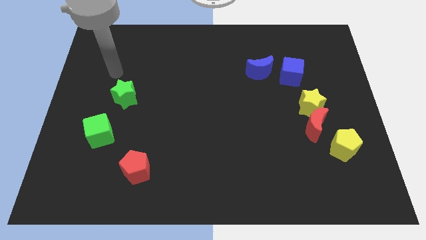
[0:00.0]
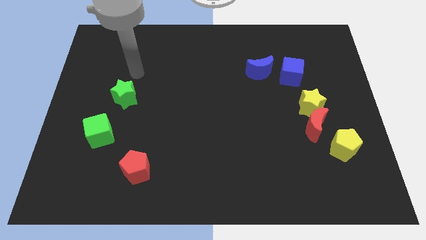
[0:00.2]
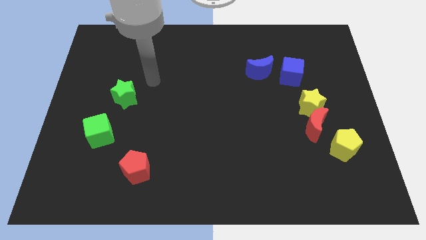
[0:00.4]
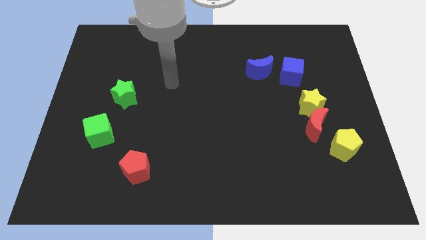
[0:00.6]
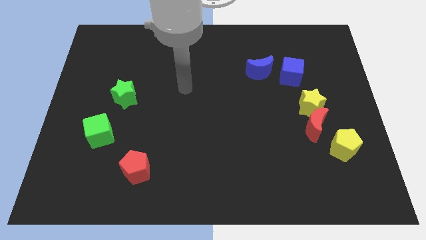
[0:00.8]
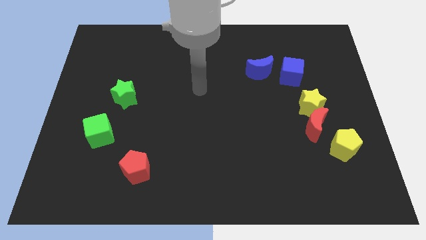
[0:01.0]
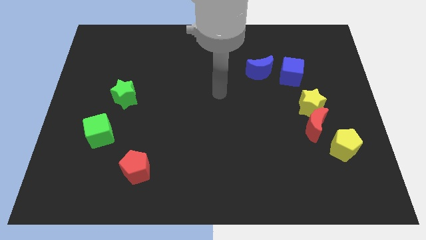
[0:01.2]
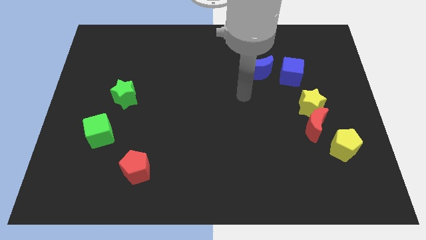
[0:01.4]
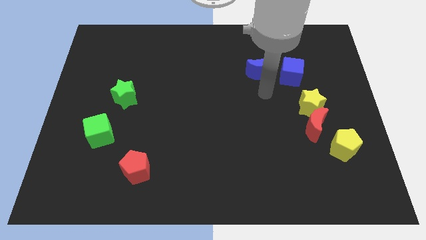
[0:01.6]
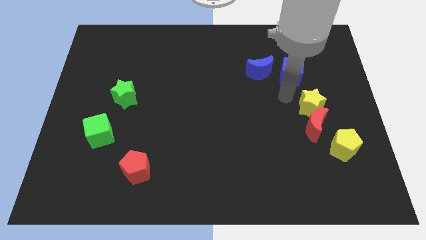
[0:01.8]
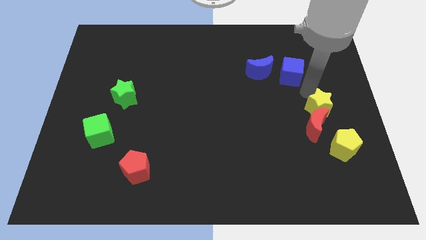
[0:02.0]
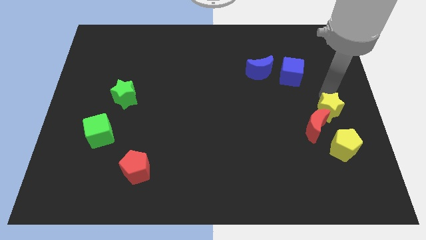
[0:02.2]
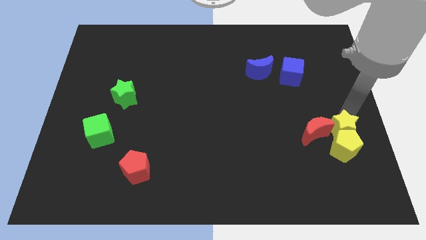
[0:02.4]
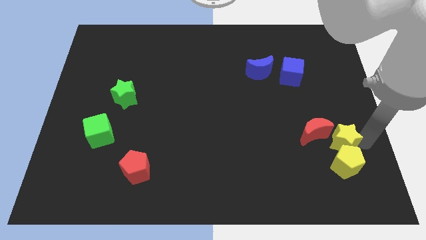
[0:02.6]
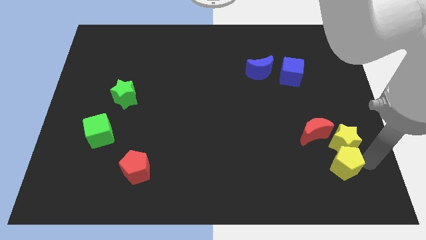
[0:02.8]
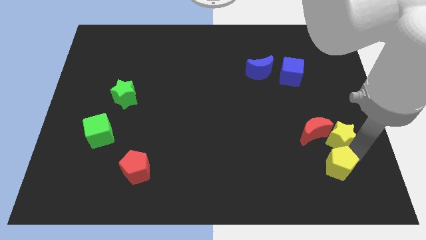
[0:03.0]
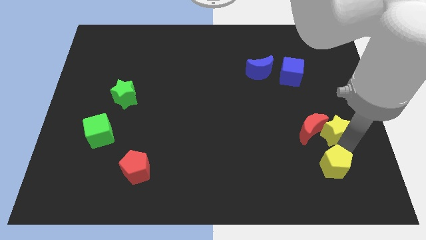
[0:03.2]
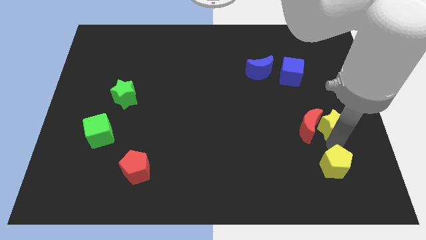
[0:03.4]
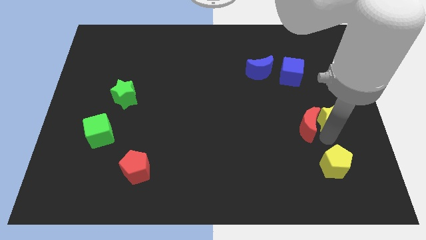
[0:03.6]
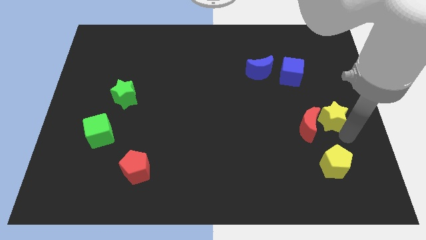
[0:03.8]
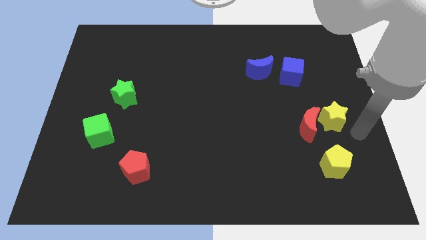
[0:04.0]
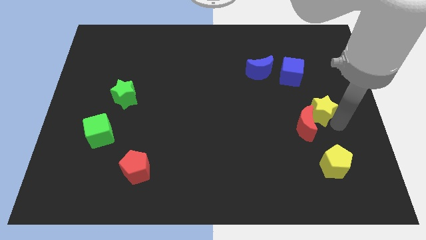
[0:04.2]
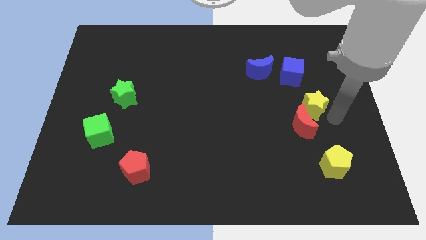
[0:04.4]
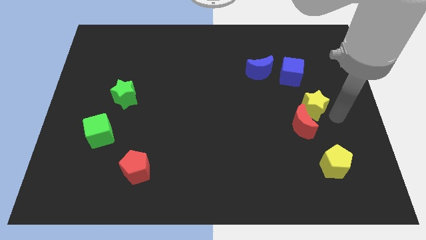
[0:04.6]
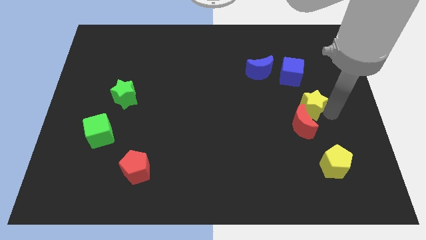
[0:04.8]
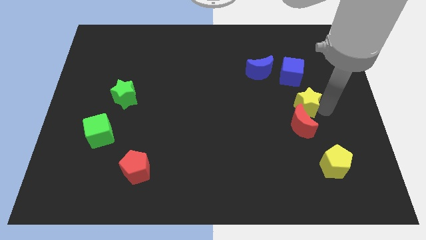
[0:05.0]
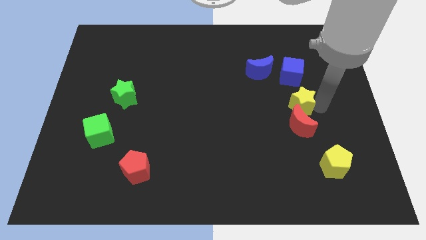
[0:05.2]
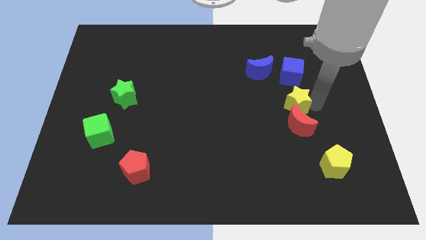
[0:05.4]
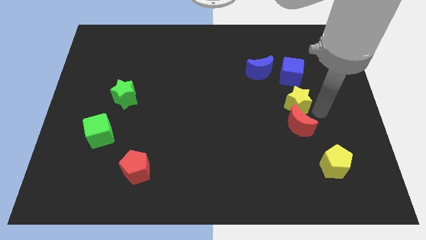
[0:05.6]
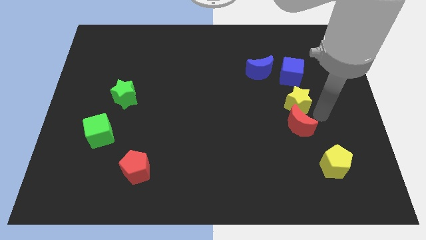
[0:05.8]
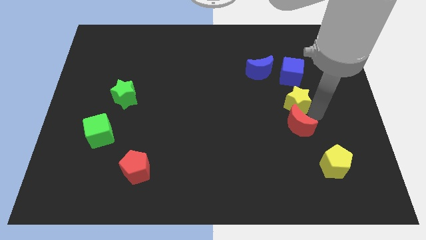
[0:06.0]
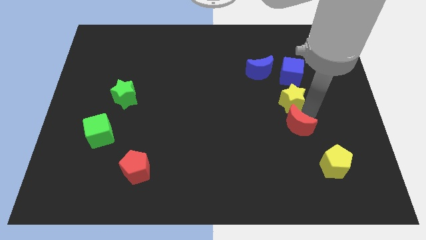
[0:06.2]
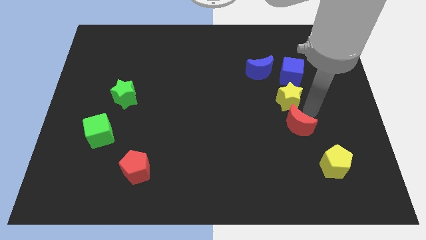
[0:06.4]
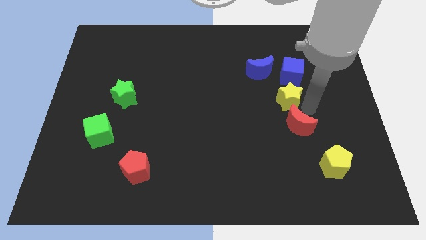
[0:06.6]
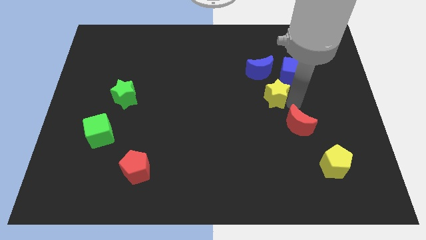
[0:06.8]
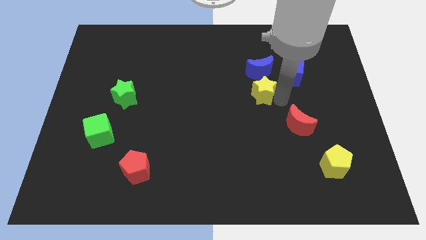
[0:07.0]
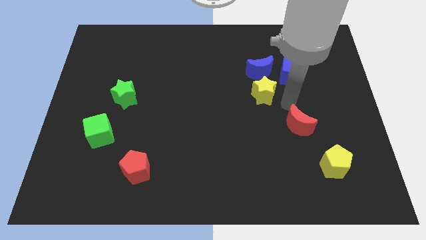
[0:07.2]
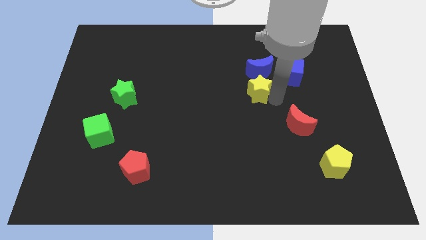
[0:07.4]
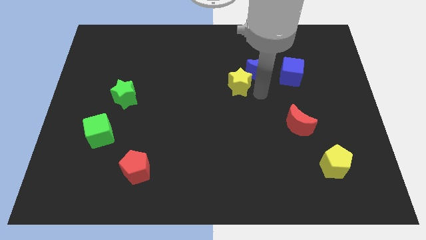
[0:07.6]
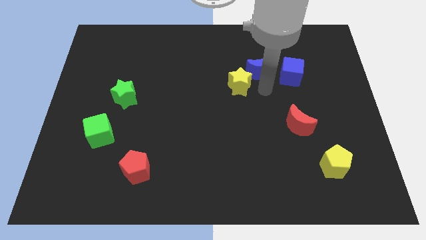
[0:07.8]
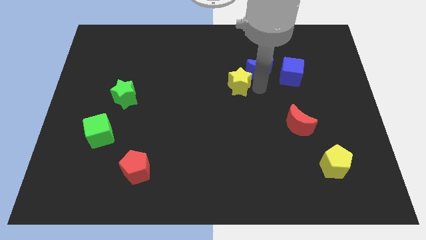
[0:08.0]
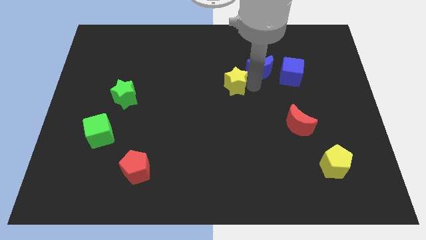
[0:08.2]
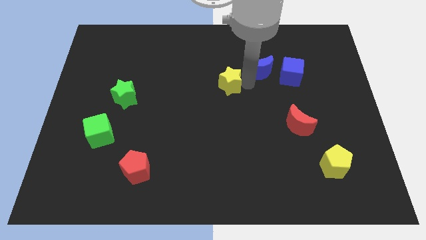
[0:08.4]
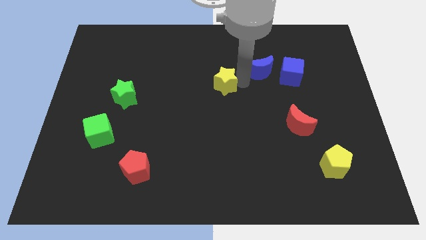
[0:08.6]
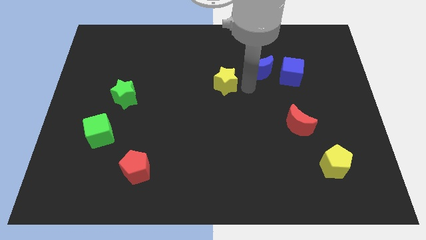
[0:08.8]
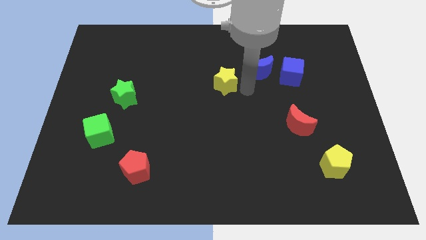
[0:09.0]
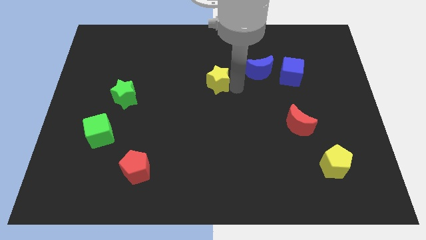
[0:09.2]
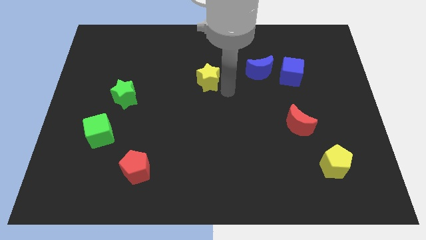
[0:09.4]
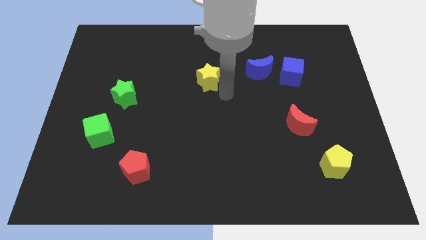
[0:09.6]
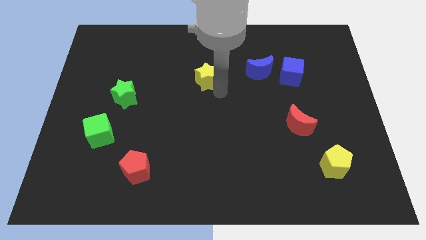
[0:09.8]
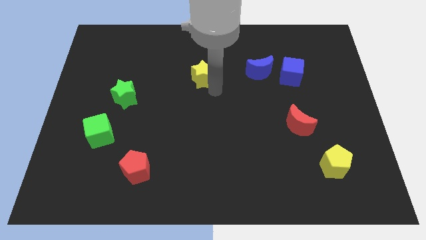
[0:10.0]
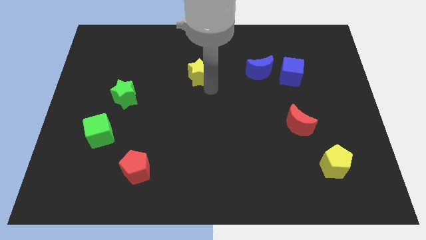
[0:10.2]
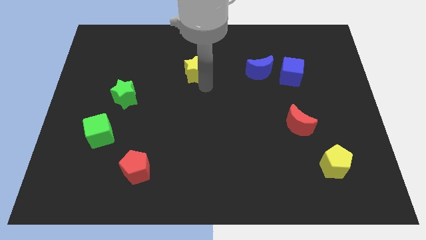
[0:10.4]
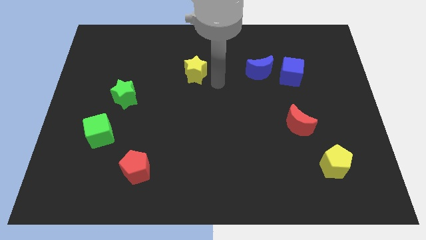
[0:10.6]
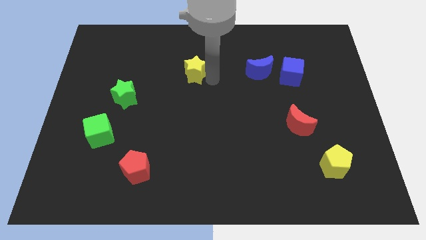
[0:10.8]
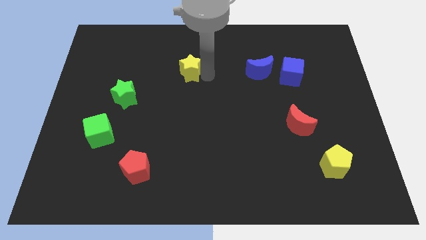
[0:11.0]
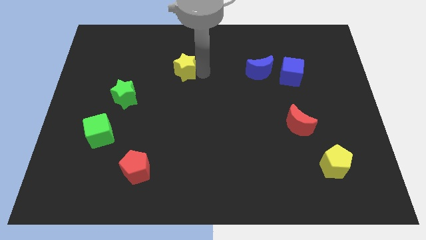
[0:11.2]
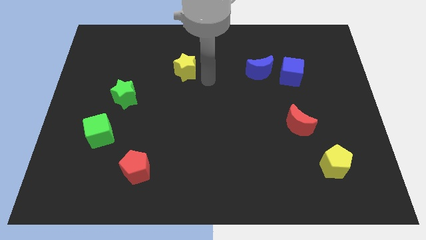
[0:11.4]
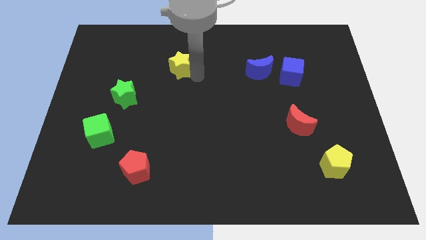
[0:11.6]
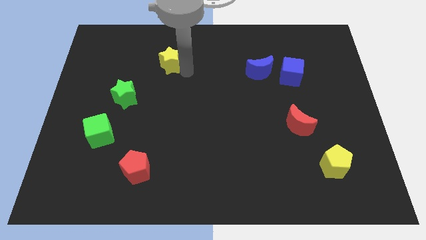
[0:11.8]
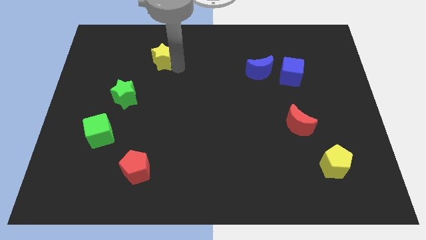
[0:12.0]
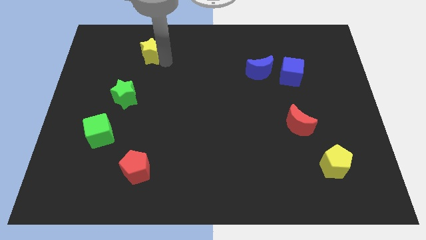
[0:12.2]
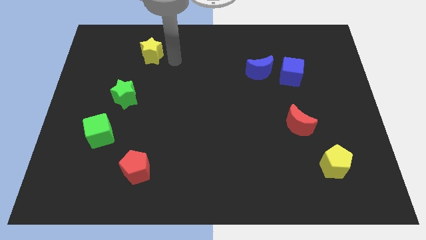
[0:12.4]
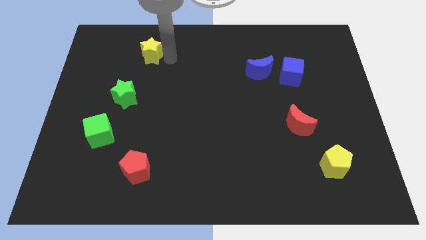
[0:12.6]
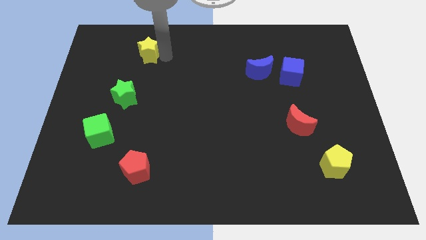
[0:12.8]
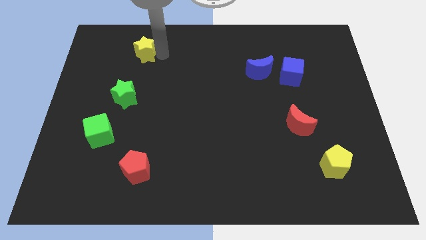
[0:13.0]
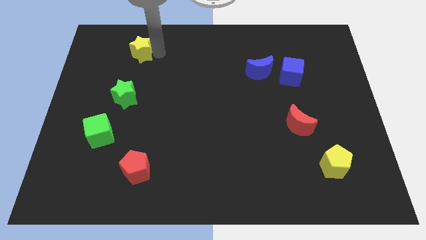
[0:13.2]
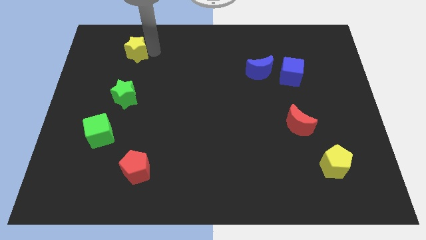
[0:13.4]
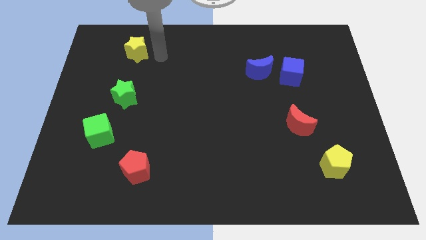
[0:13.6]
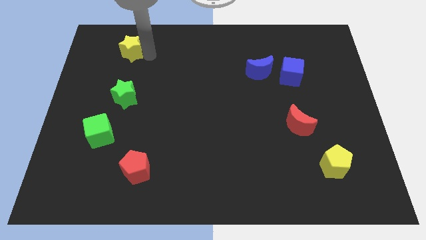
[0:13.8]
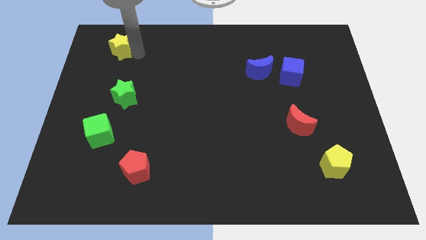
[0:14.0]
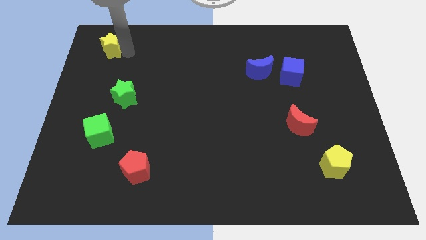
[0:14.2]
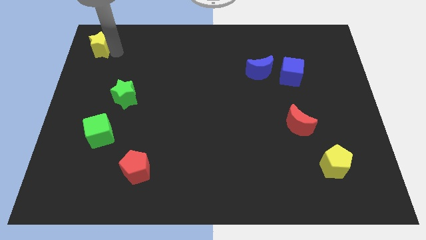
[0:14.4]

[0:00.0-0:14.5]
move the yellow star to the top left corner
